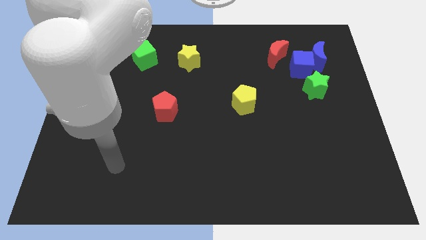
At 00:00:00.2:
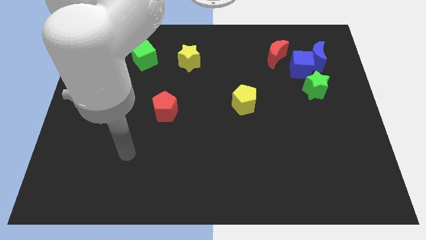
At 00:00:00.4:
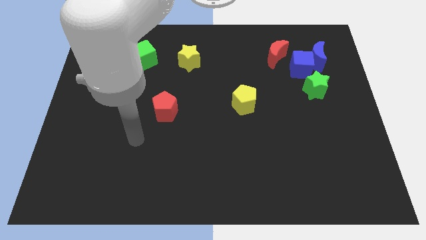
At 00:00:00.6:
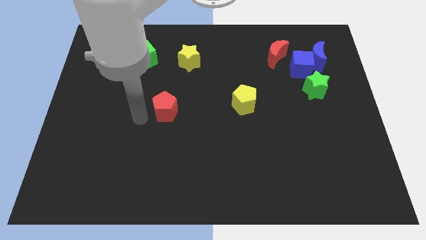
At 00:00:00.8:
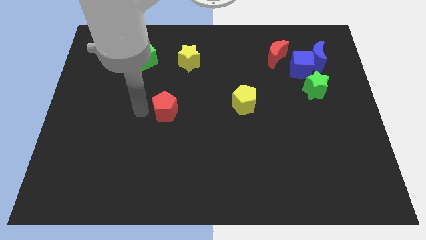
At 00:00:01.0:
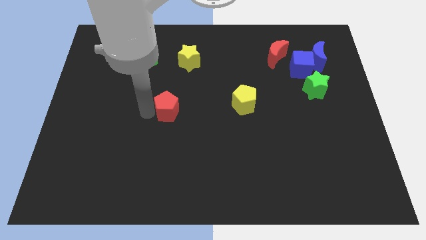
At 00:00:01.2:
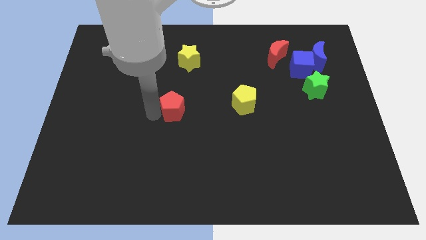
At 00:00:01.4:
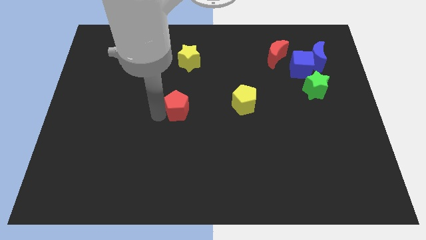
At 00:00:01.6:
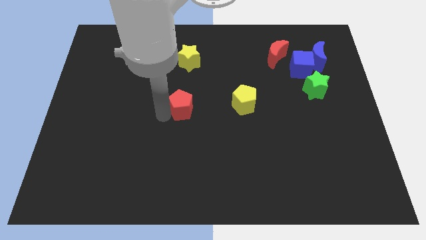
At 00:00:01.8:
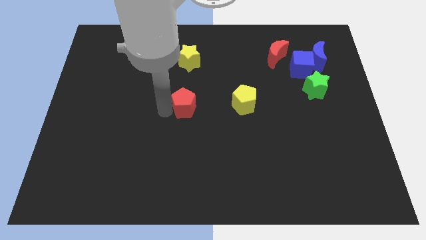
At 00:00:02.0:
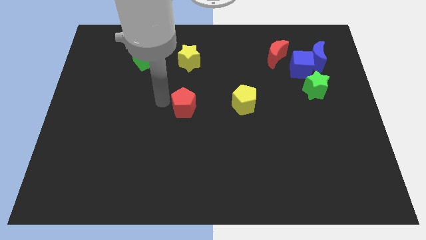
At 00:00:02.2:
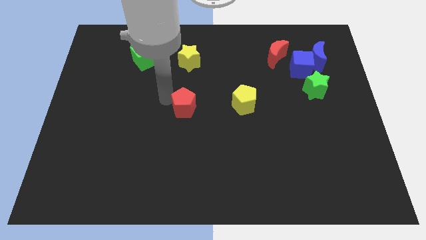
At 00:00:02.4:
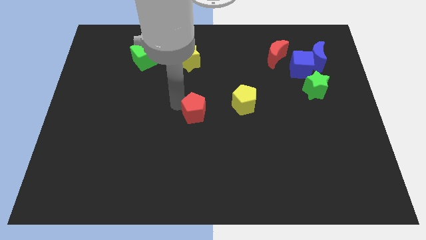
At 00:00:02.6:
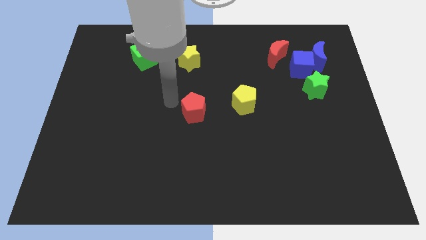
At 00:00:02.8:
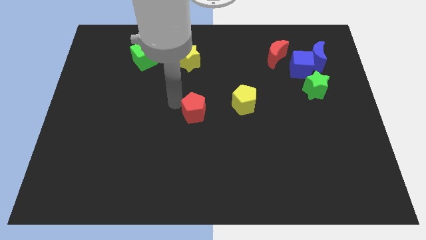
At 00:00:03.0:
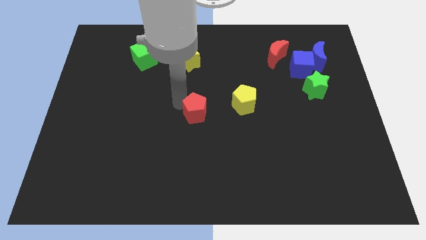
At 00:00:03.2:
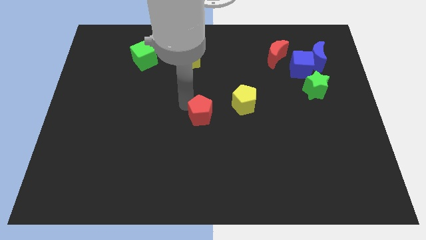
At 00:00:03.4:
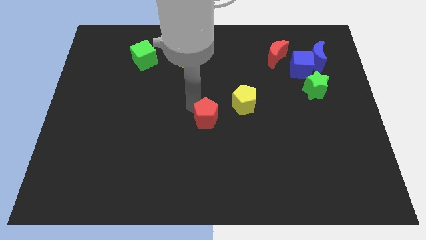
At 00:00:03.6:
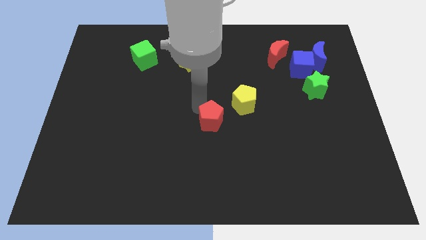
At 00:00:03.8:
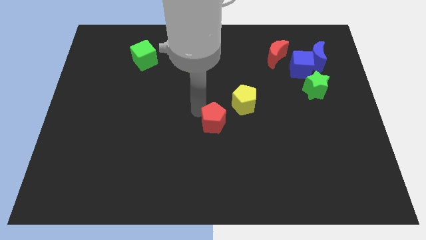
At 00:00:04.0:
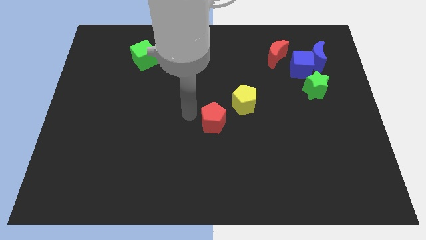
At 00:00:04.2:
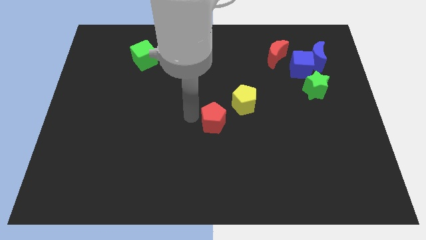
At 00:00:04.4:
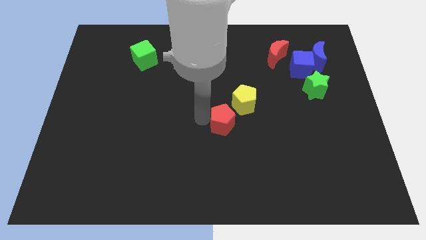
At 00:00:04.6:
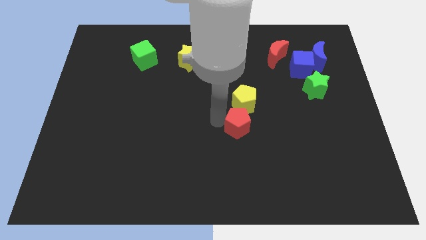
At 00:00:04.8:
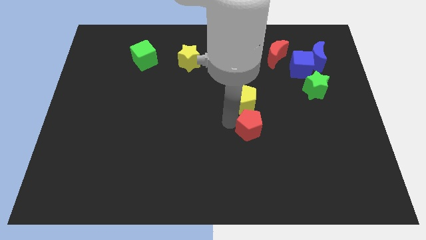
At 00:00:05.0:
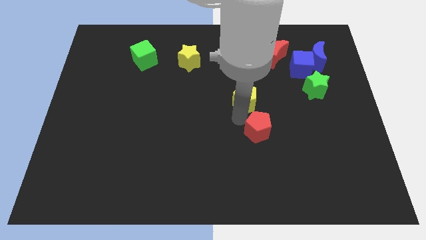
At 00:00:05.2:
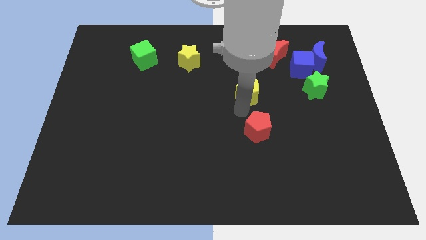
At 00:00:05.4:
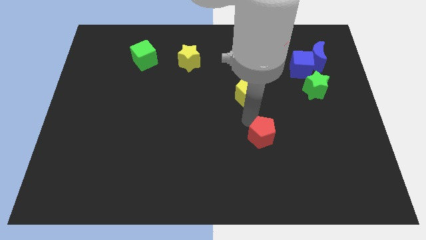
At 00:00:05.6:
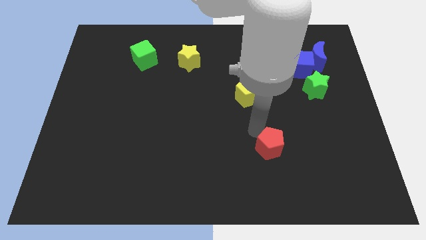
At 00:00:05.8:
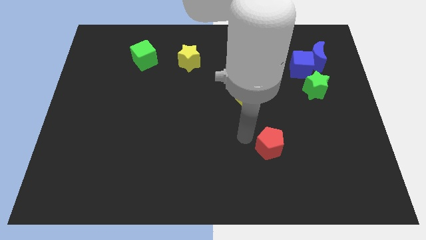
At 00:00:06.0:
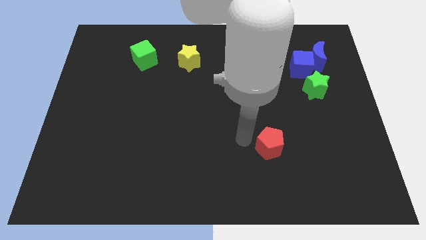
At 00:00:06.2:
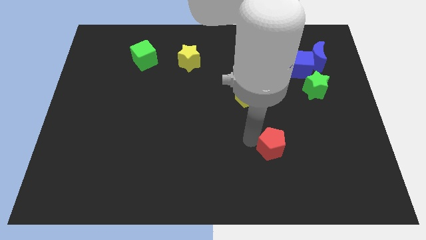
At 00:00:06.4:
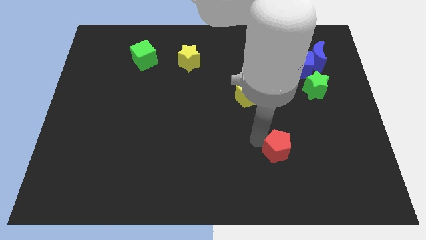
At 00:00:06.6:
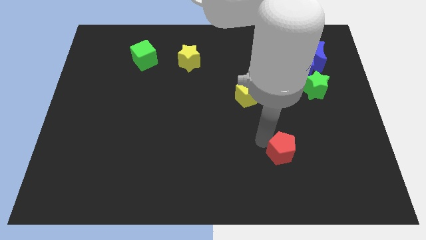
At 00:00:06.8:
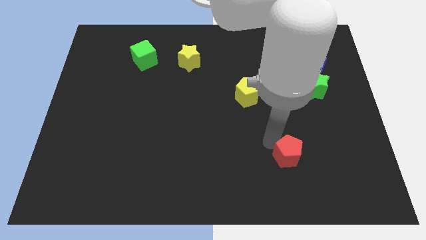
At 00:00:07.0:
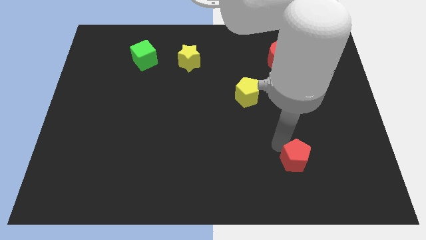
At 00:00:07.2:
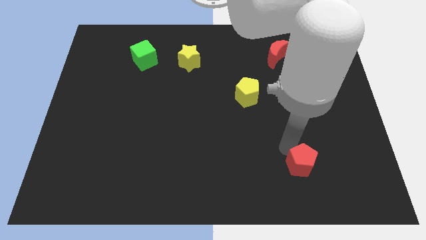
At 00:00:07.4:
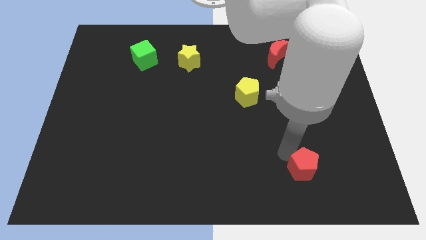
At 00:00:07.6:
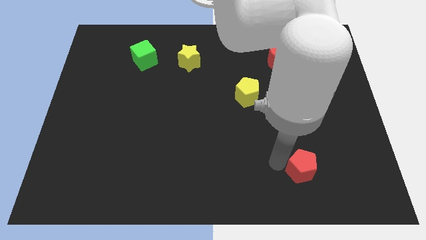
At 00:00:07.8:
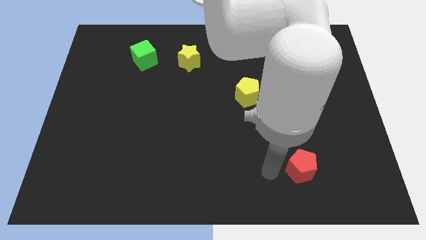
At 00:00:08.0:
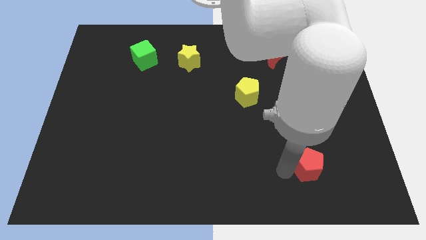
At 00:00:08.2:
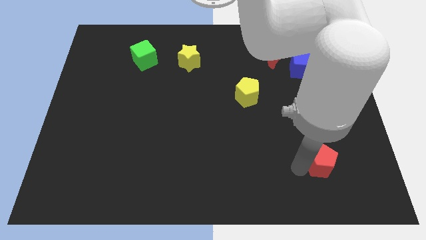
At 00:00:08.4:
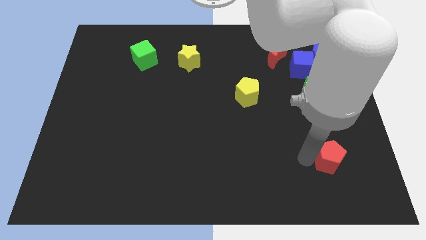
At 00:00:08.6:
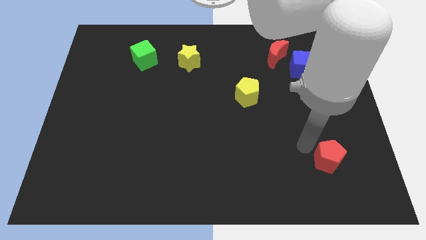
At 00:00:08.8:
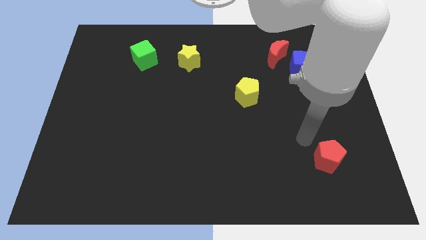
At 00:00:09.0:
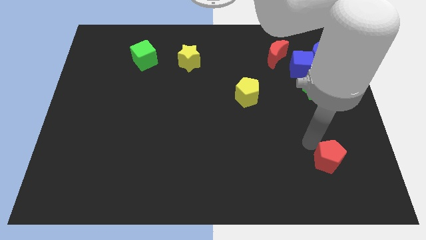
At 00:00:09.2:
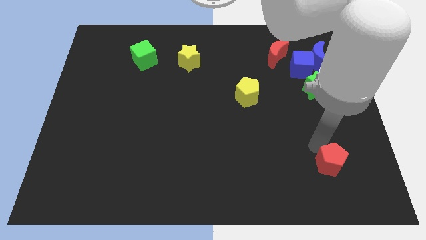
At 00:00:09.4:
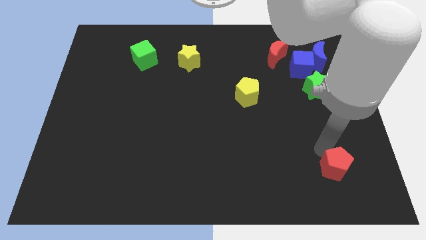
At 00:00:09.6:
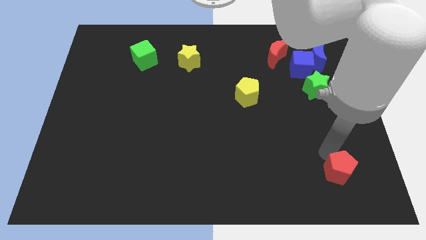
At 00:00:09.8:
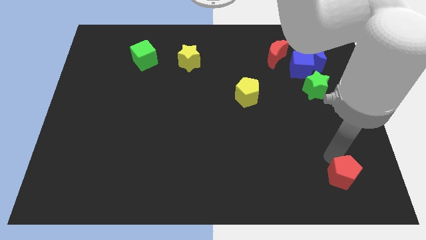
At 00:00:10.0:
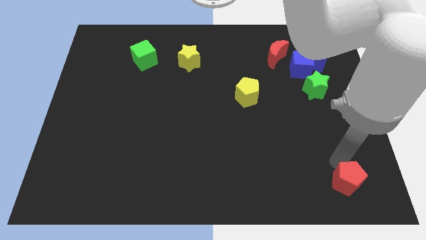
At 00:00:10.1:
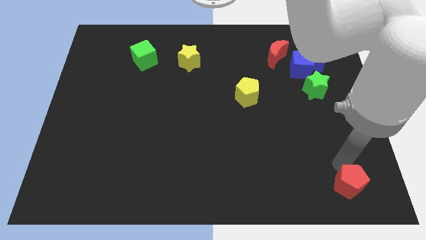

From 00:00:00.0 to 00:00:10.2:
push the red pentagon to the lower right corner

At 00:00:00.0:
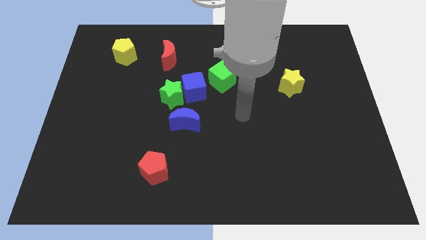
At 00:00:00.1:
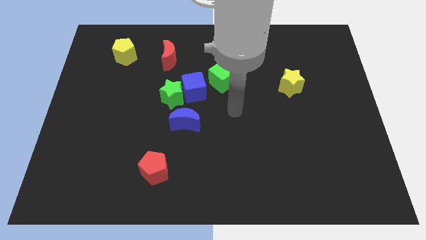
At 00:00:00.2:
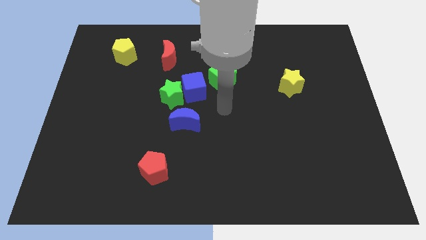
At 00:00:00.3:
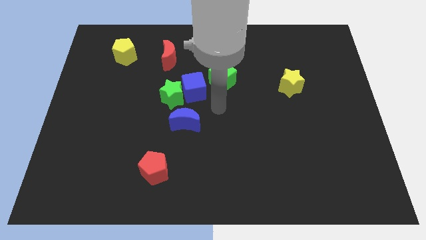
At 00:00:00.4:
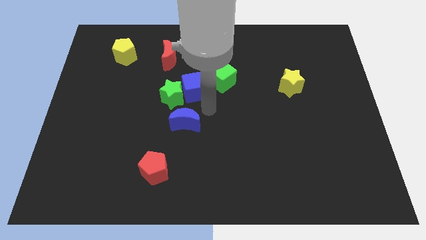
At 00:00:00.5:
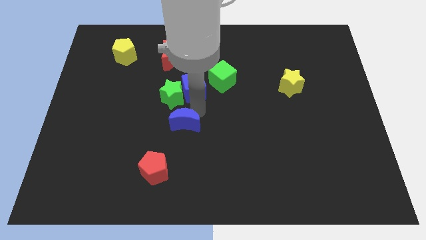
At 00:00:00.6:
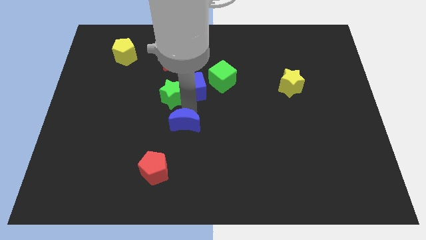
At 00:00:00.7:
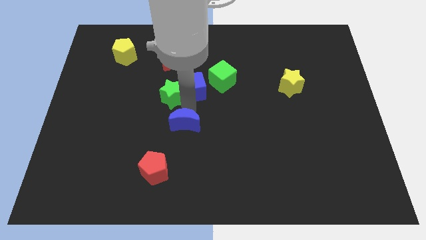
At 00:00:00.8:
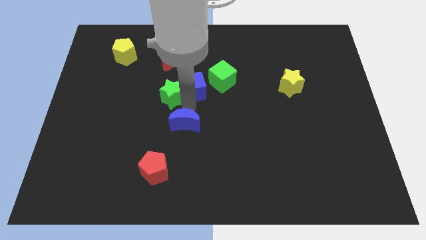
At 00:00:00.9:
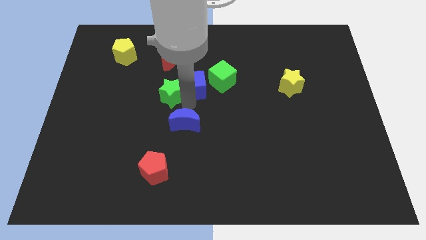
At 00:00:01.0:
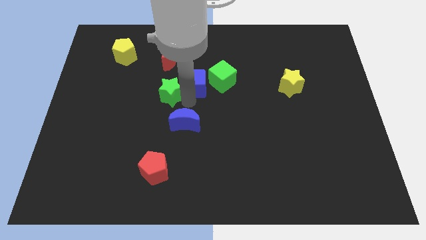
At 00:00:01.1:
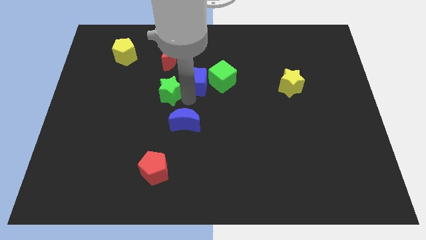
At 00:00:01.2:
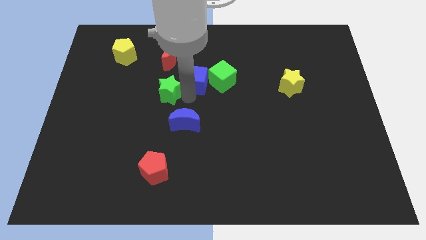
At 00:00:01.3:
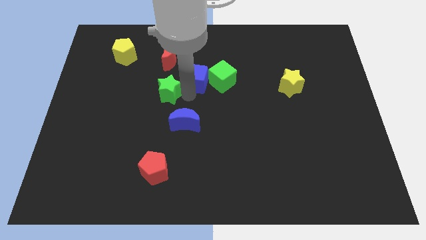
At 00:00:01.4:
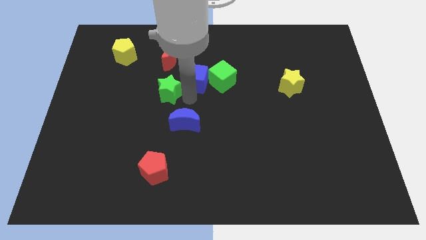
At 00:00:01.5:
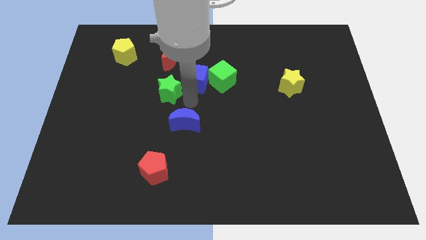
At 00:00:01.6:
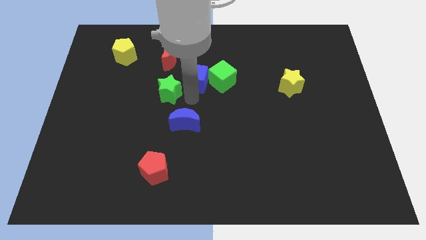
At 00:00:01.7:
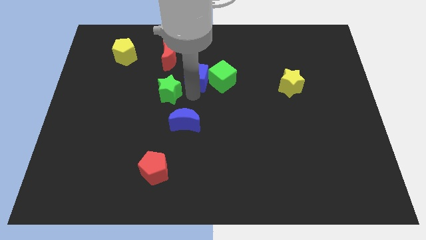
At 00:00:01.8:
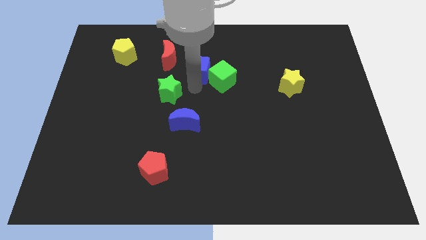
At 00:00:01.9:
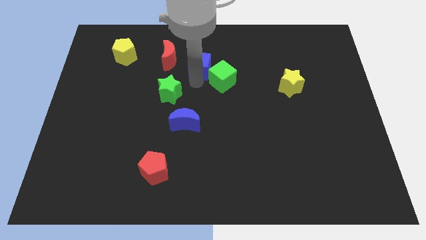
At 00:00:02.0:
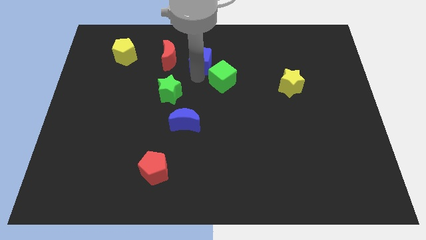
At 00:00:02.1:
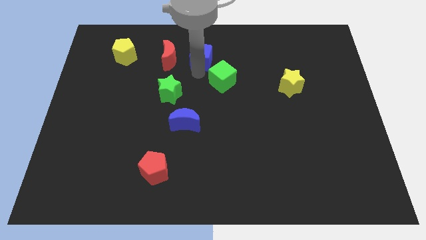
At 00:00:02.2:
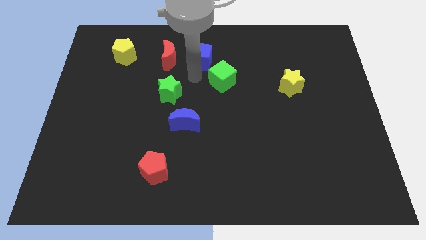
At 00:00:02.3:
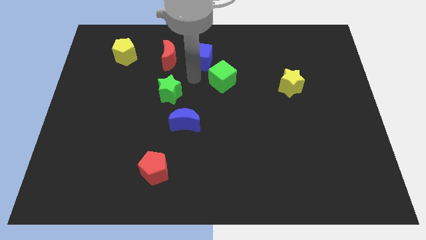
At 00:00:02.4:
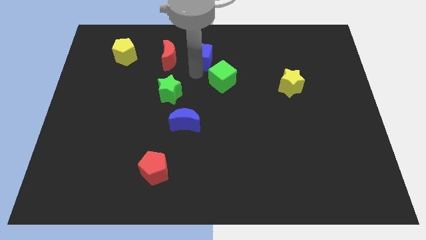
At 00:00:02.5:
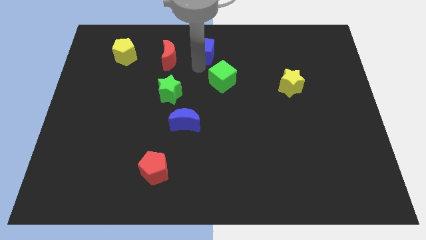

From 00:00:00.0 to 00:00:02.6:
push the blue cube to the top
